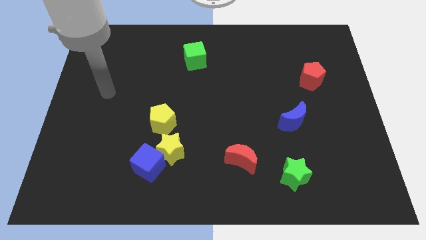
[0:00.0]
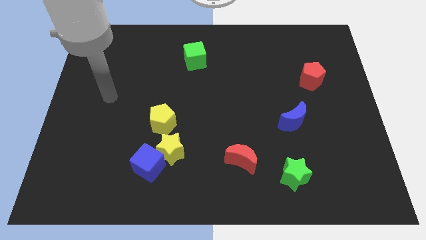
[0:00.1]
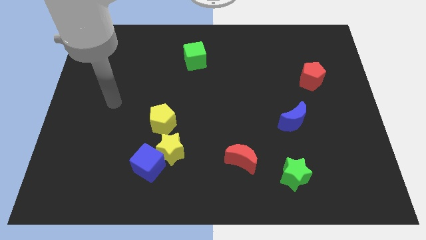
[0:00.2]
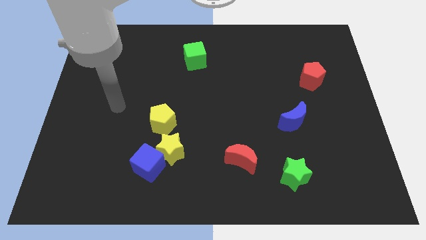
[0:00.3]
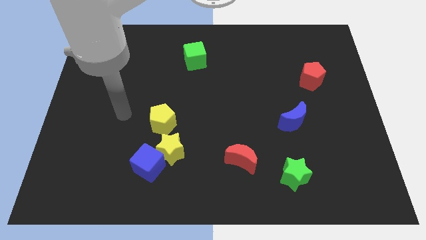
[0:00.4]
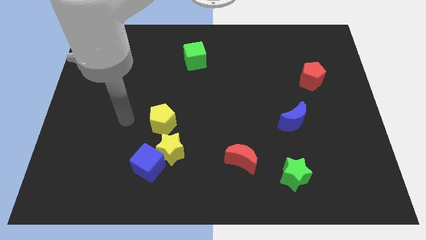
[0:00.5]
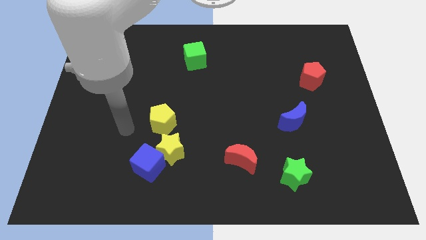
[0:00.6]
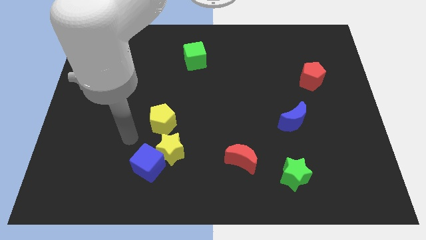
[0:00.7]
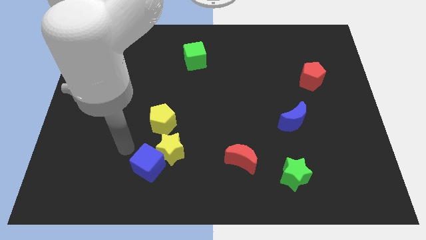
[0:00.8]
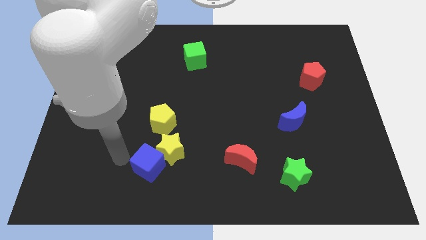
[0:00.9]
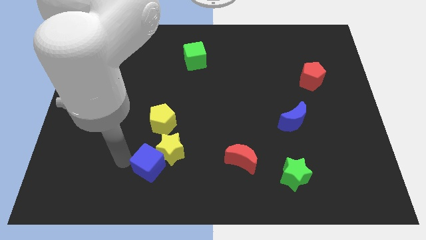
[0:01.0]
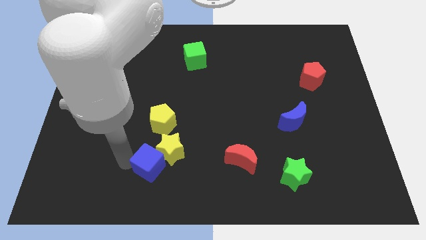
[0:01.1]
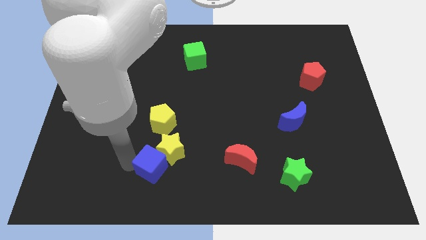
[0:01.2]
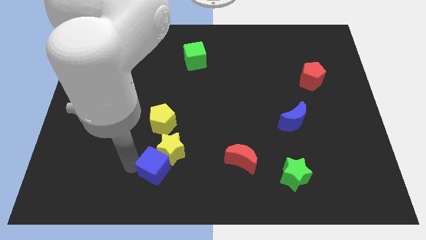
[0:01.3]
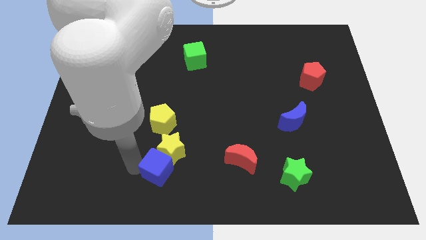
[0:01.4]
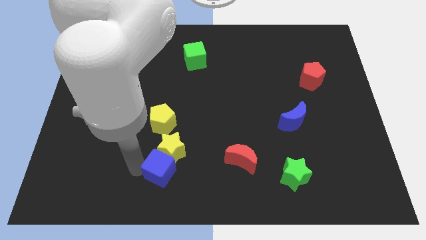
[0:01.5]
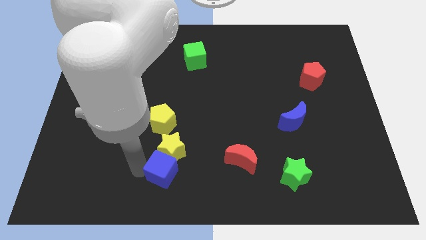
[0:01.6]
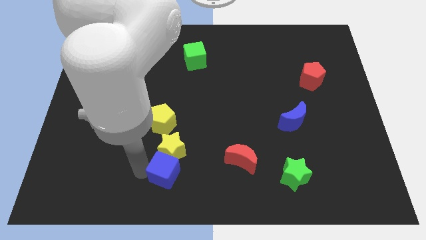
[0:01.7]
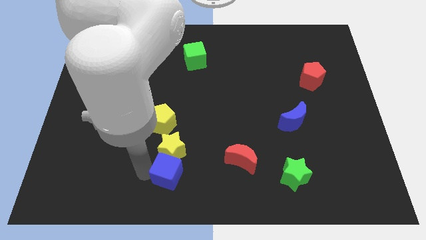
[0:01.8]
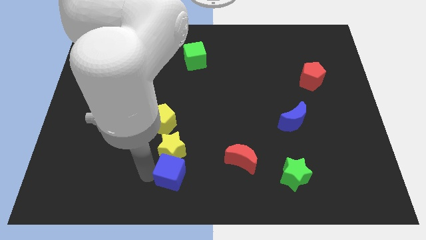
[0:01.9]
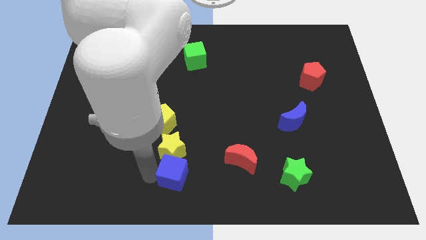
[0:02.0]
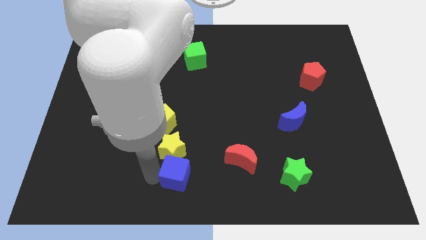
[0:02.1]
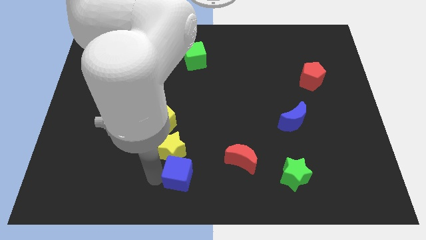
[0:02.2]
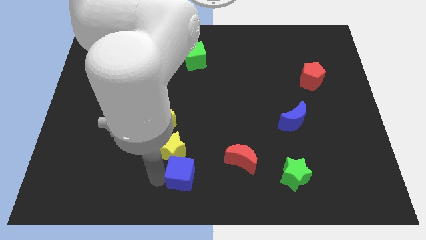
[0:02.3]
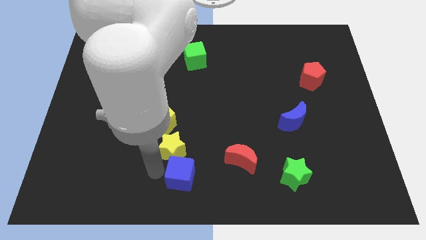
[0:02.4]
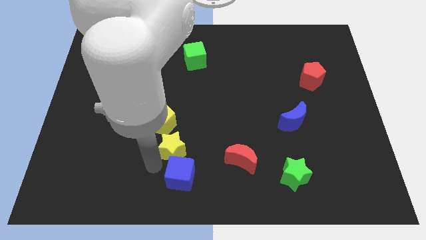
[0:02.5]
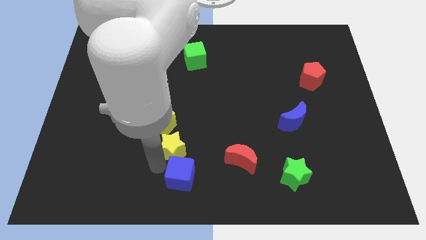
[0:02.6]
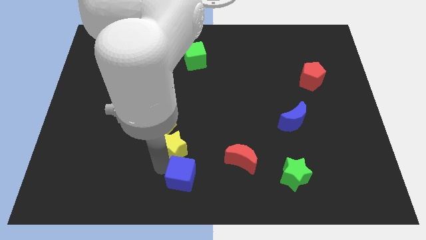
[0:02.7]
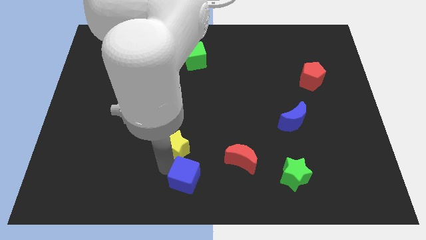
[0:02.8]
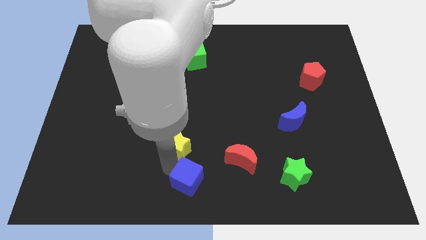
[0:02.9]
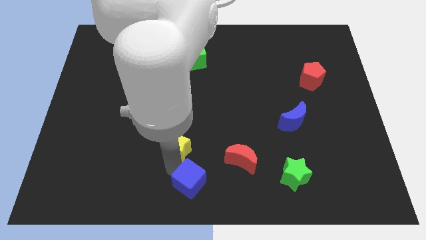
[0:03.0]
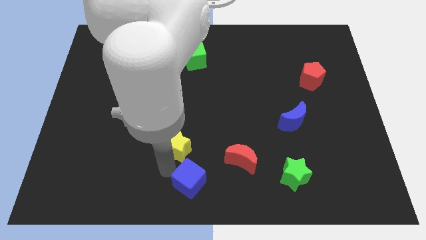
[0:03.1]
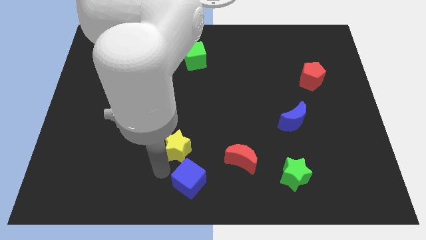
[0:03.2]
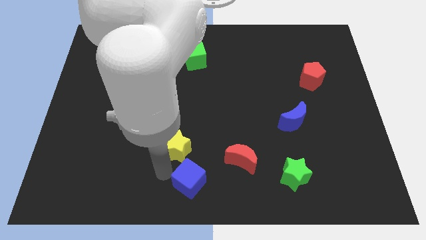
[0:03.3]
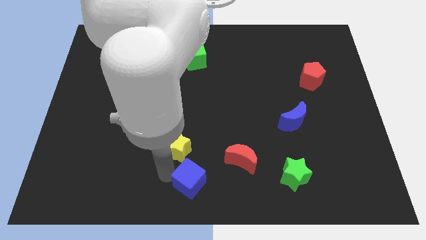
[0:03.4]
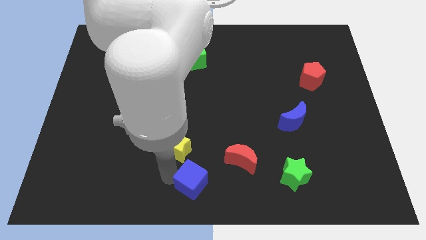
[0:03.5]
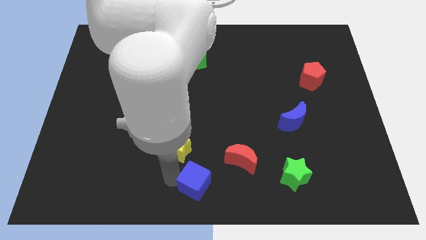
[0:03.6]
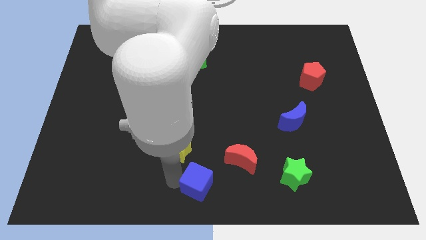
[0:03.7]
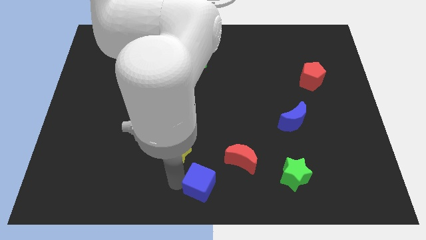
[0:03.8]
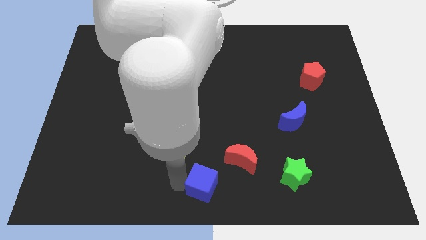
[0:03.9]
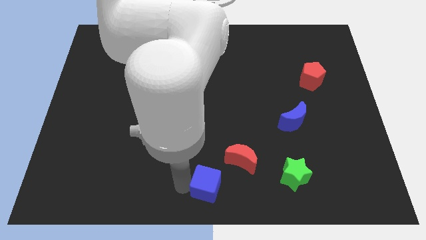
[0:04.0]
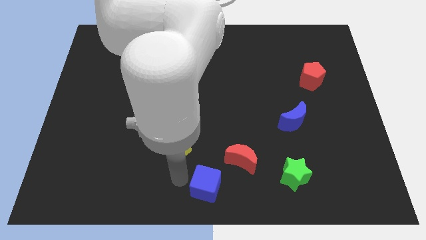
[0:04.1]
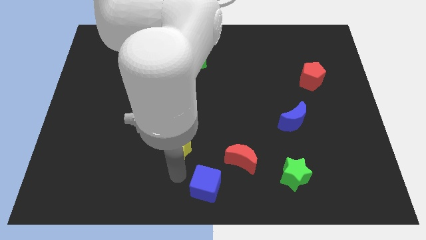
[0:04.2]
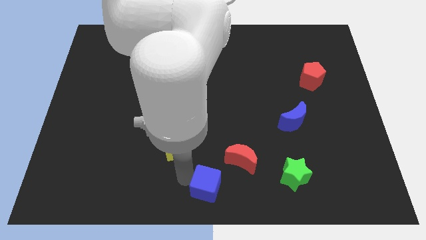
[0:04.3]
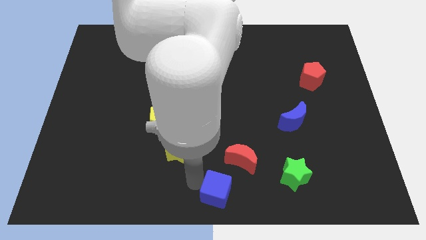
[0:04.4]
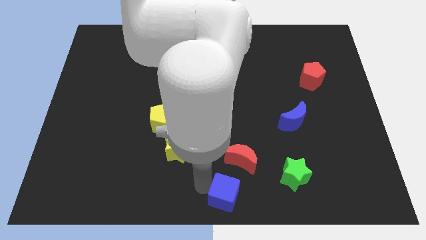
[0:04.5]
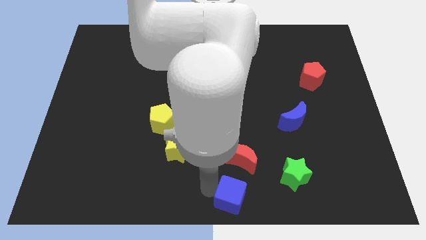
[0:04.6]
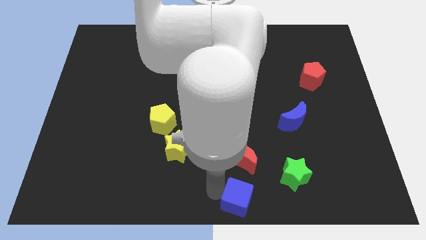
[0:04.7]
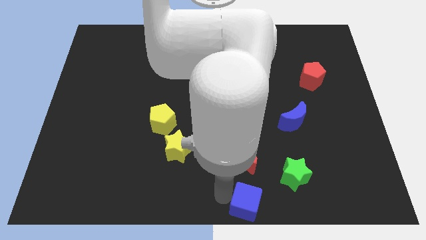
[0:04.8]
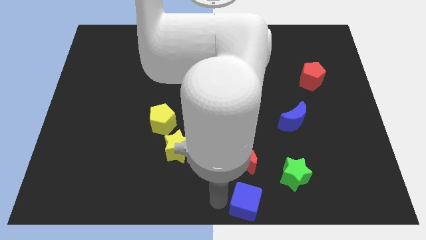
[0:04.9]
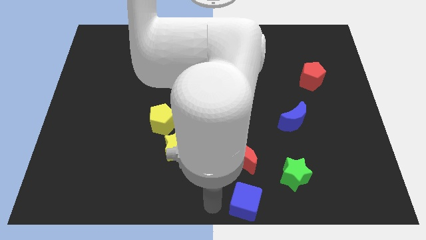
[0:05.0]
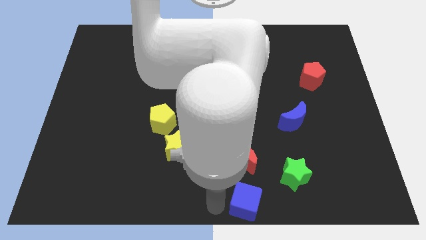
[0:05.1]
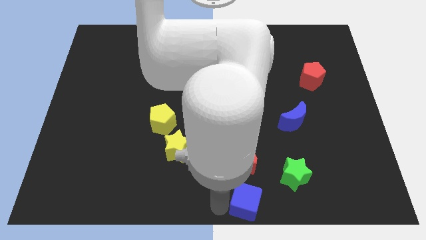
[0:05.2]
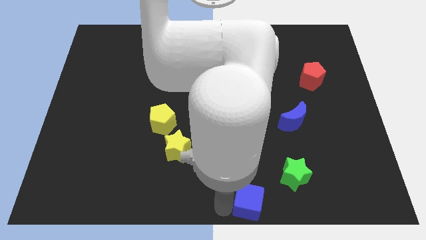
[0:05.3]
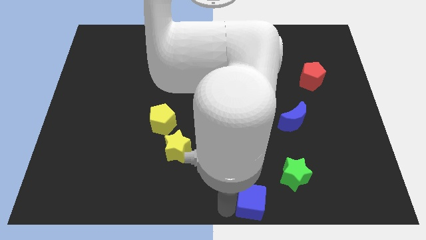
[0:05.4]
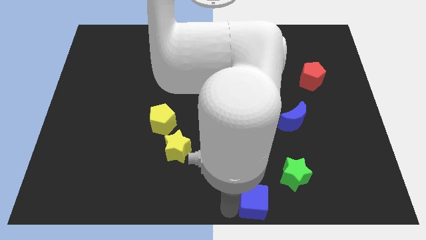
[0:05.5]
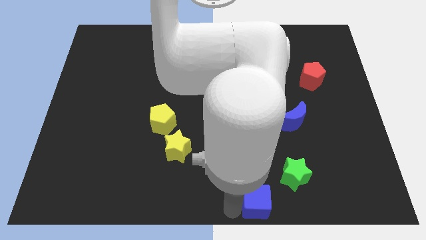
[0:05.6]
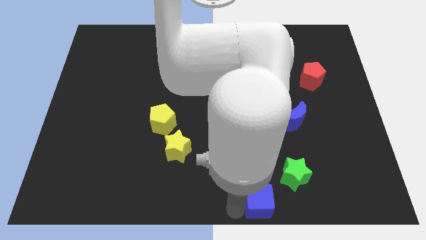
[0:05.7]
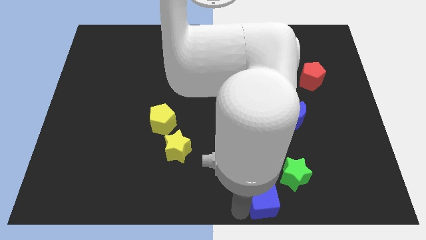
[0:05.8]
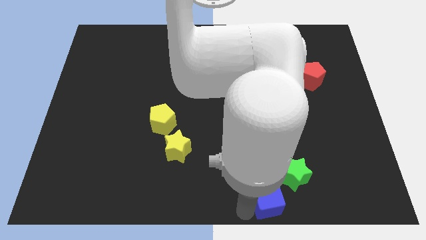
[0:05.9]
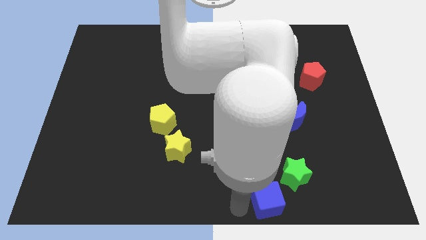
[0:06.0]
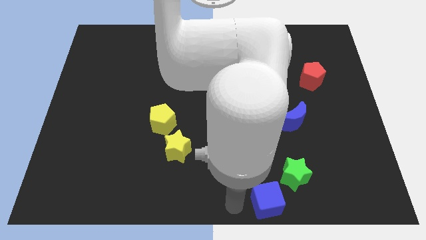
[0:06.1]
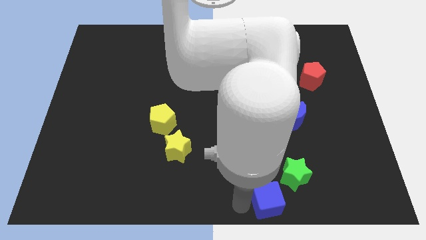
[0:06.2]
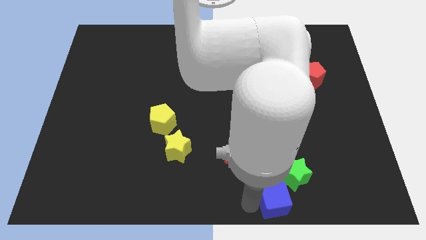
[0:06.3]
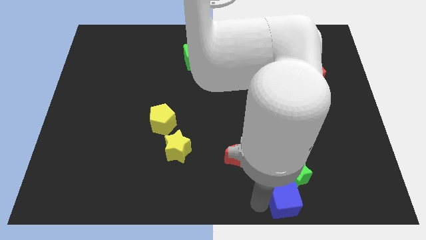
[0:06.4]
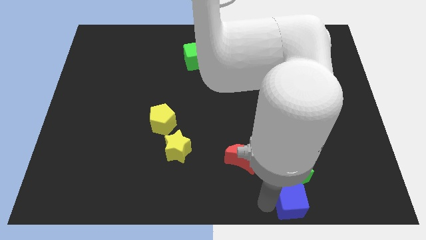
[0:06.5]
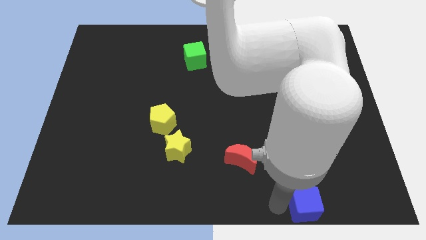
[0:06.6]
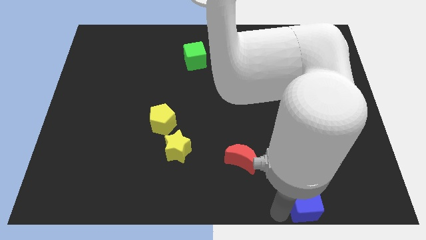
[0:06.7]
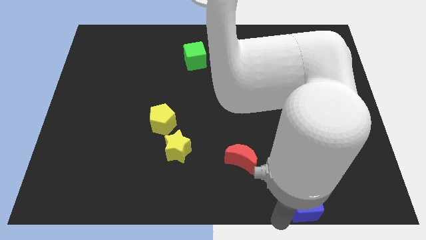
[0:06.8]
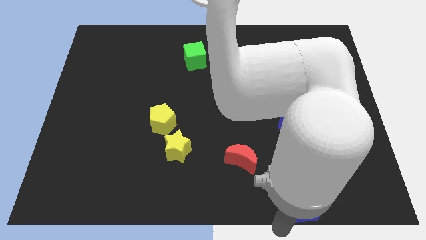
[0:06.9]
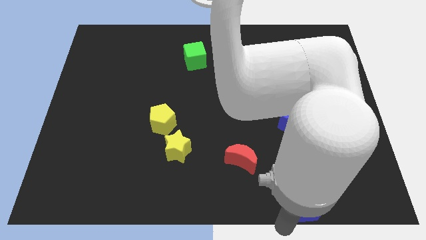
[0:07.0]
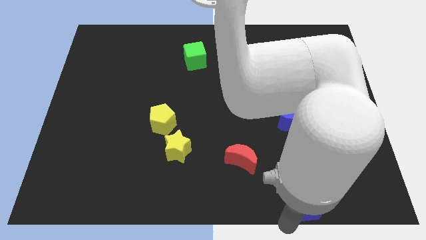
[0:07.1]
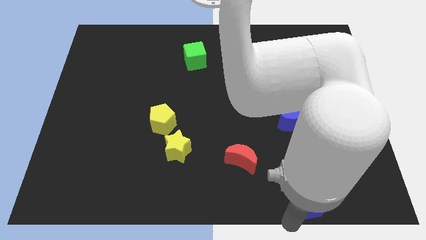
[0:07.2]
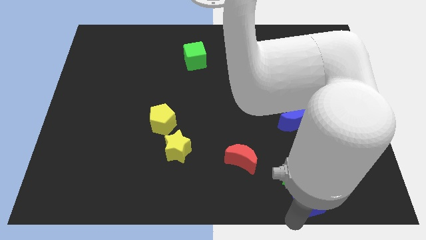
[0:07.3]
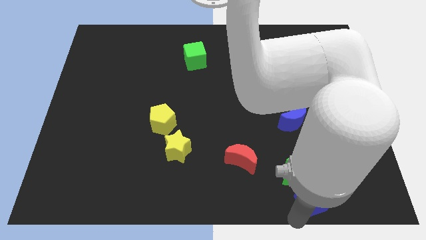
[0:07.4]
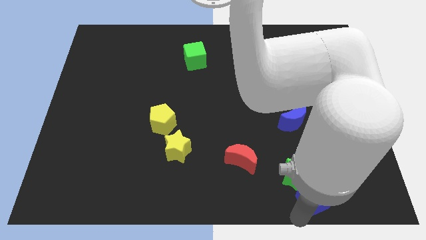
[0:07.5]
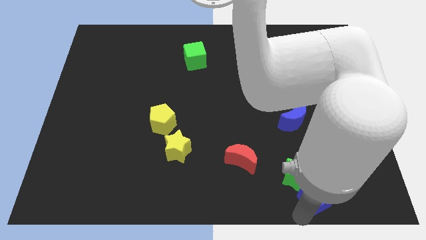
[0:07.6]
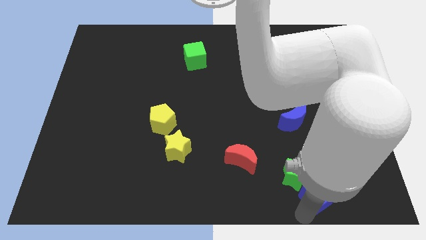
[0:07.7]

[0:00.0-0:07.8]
slide the blue cube right of the green star

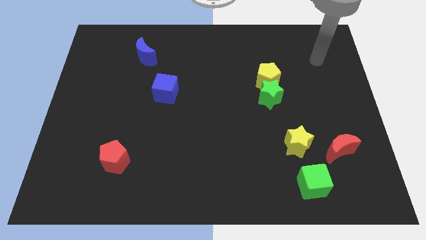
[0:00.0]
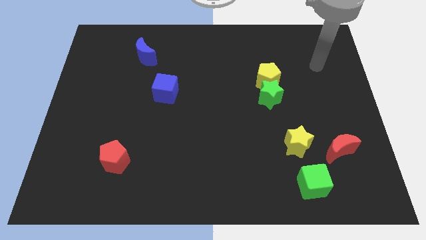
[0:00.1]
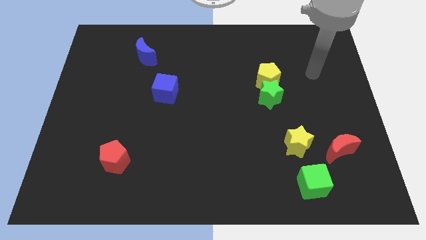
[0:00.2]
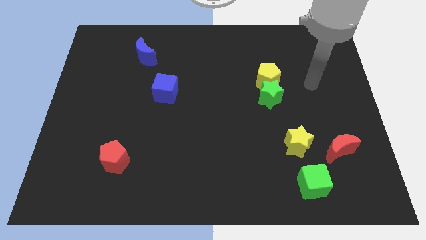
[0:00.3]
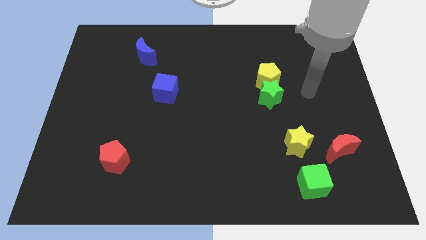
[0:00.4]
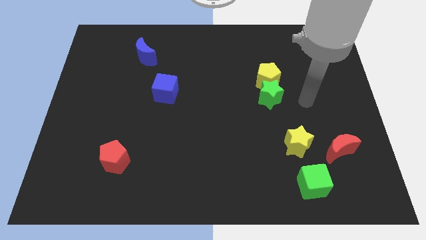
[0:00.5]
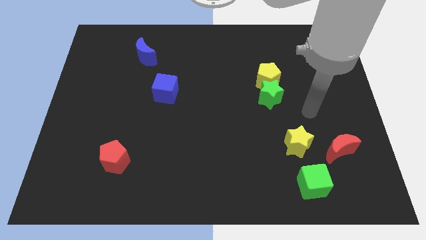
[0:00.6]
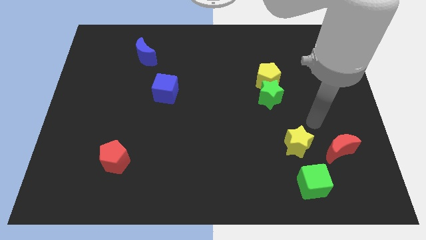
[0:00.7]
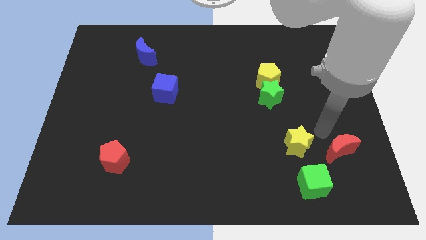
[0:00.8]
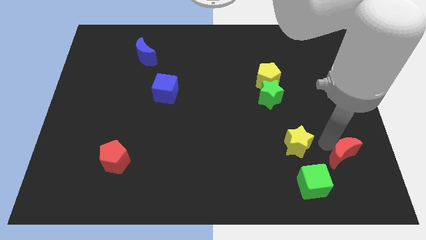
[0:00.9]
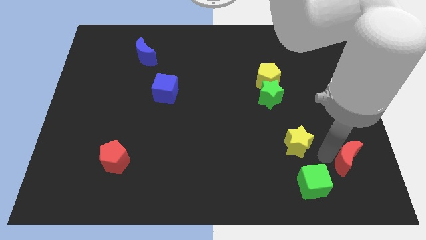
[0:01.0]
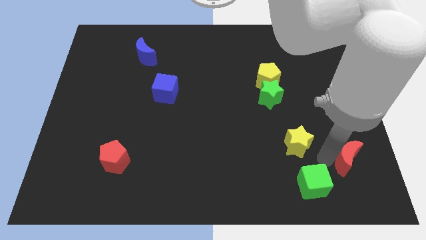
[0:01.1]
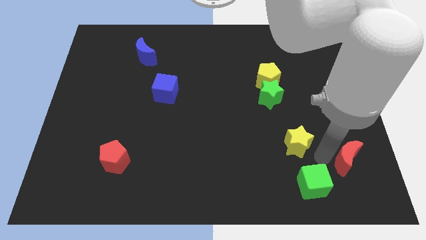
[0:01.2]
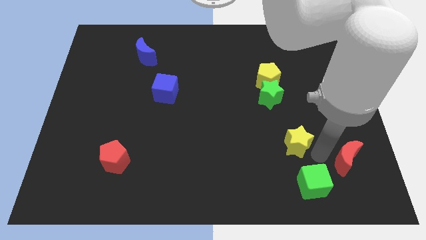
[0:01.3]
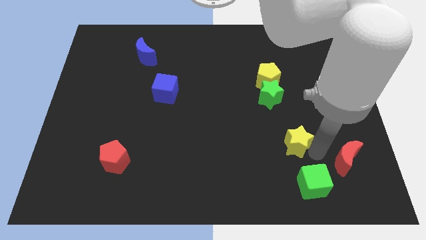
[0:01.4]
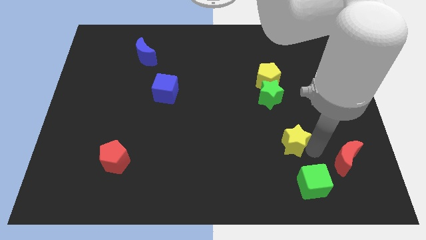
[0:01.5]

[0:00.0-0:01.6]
move the yellow star to the bottom side of the green star
